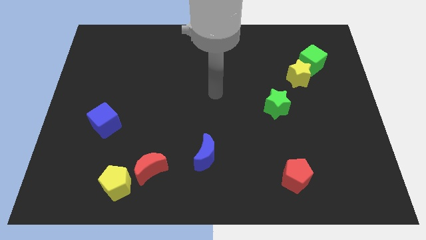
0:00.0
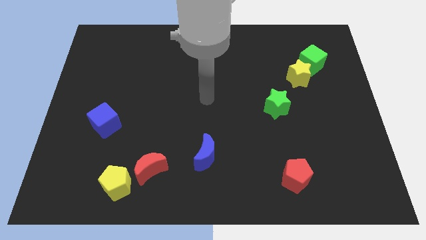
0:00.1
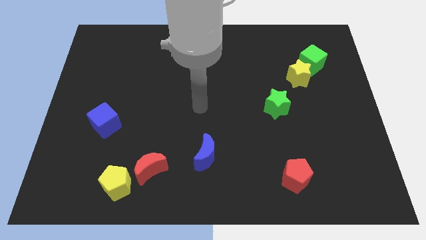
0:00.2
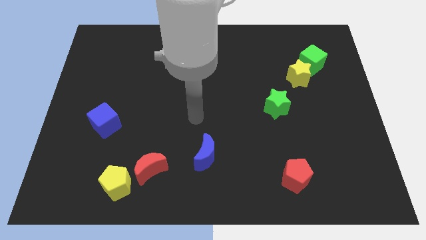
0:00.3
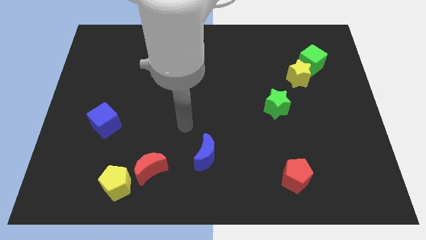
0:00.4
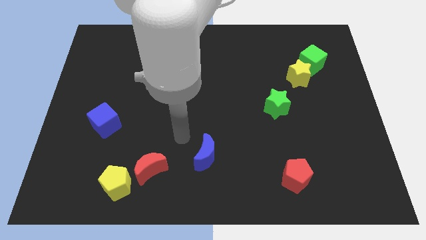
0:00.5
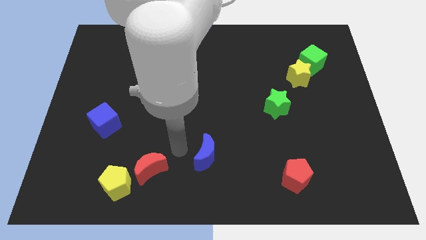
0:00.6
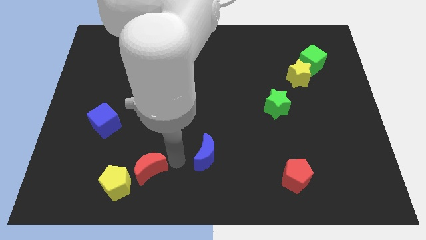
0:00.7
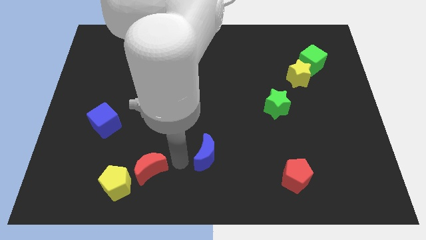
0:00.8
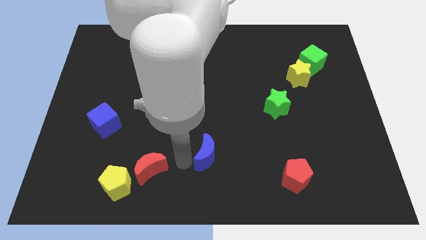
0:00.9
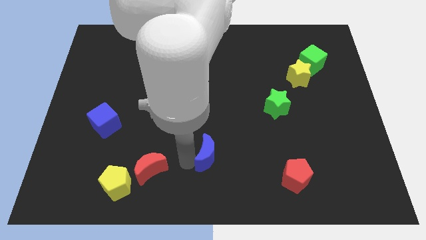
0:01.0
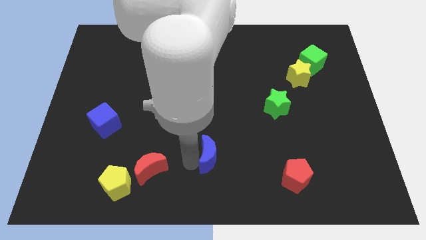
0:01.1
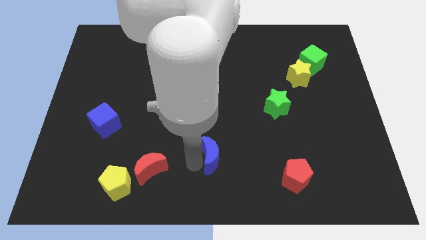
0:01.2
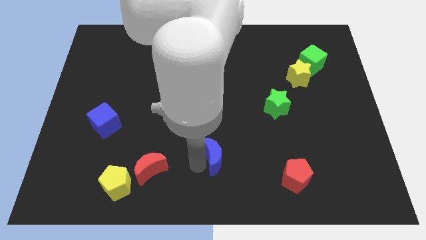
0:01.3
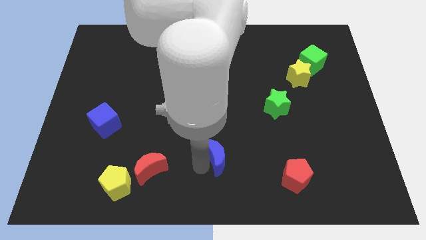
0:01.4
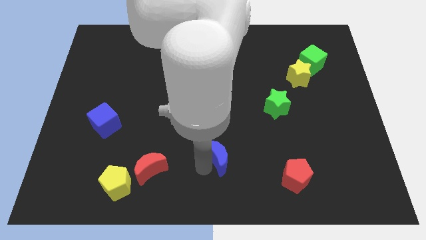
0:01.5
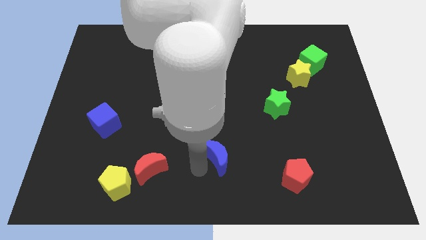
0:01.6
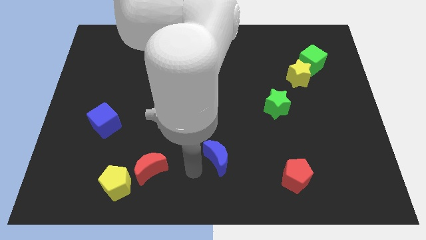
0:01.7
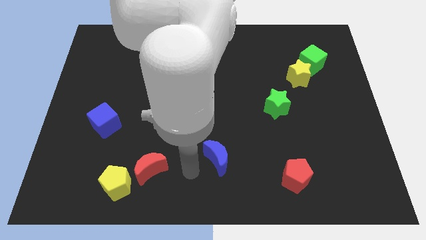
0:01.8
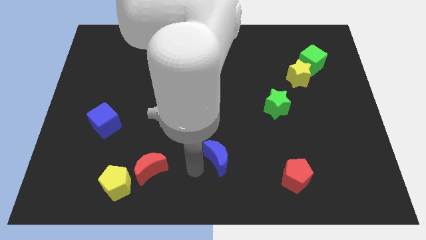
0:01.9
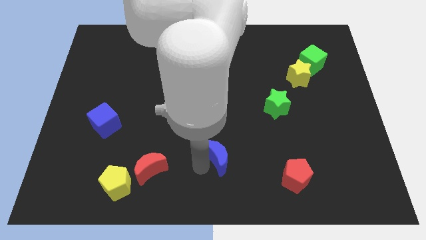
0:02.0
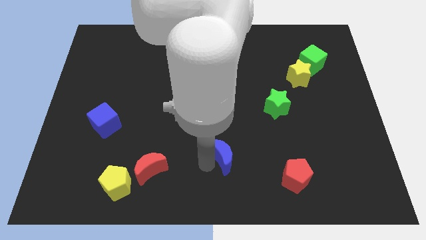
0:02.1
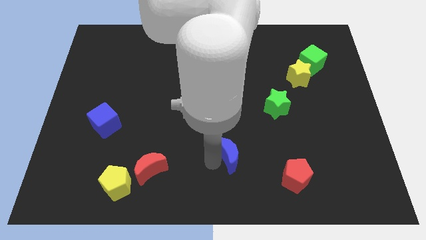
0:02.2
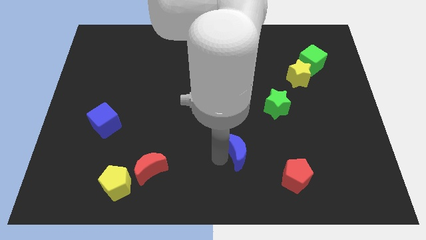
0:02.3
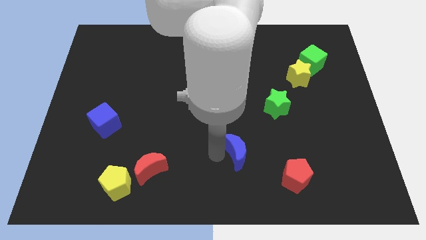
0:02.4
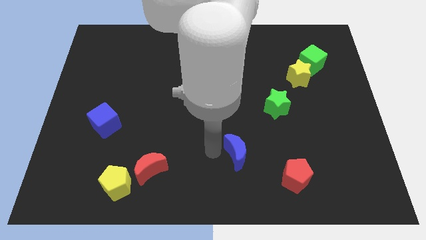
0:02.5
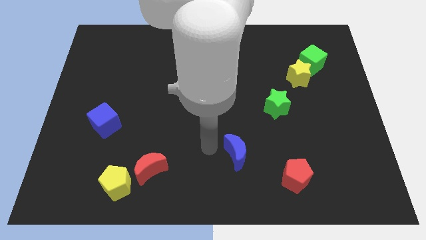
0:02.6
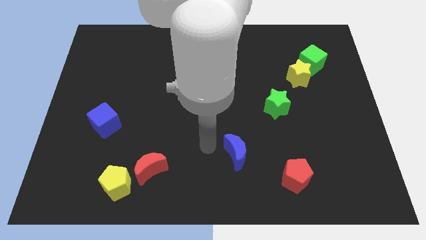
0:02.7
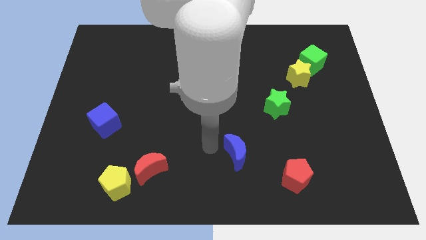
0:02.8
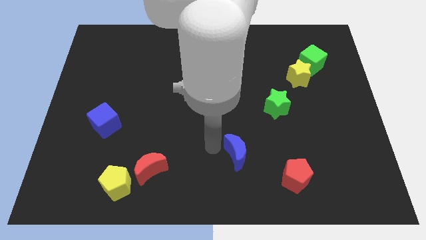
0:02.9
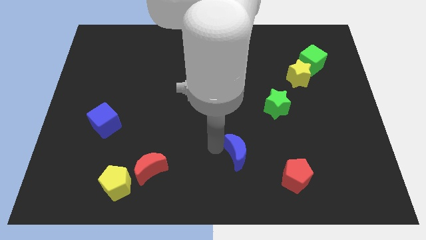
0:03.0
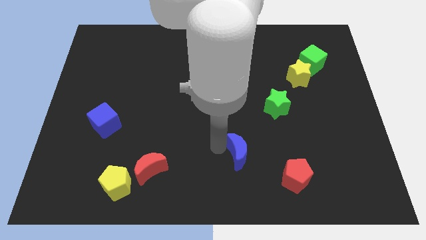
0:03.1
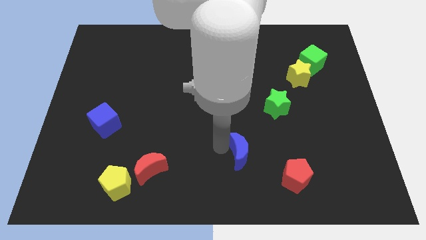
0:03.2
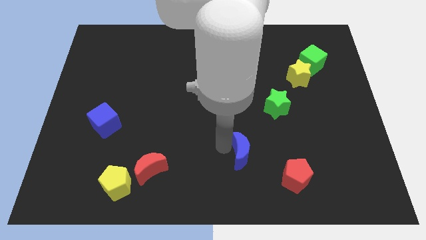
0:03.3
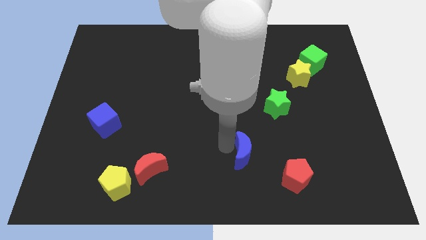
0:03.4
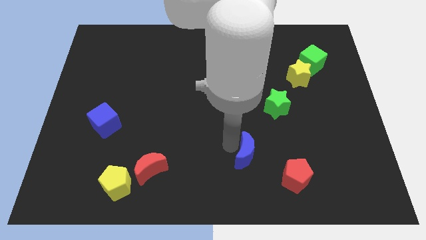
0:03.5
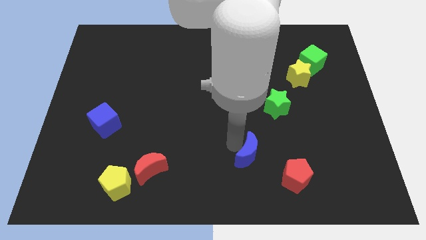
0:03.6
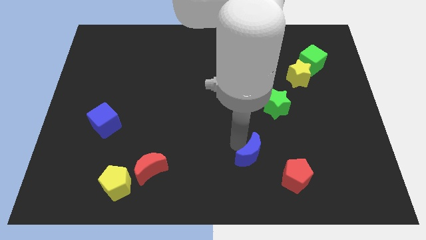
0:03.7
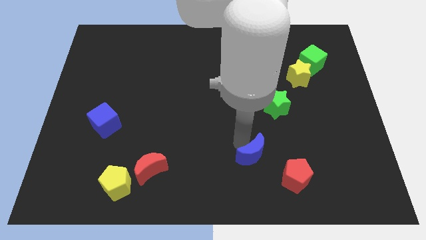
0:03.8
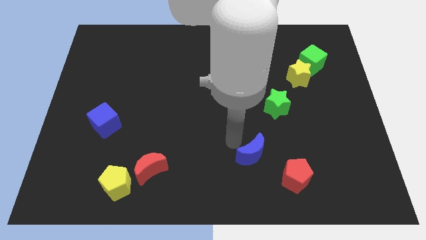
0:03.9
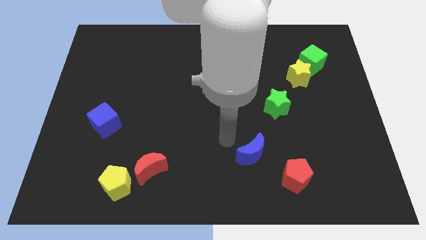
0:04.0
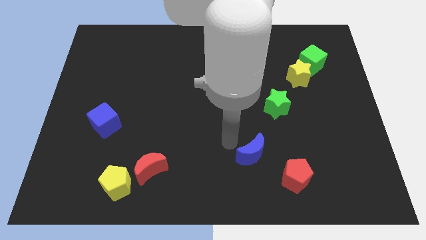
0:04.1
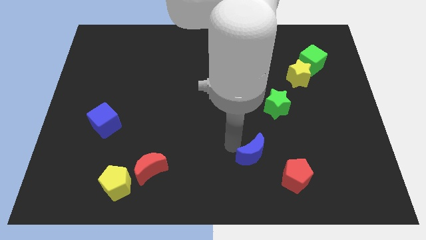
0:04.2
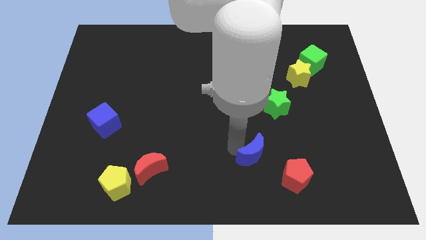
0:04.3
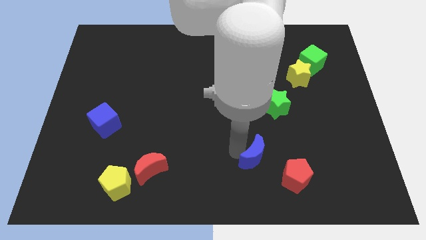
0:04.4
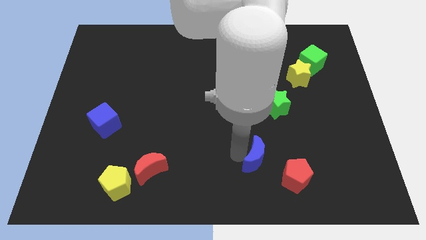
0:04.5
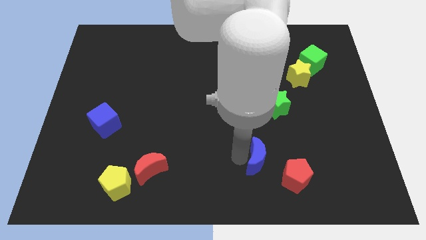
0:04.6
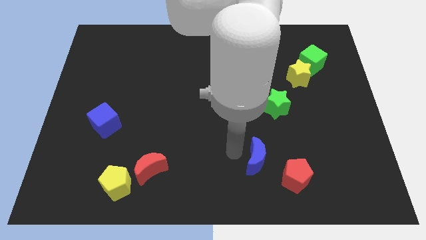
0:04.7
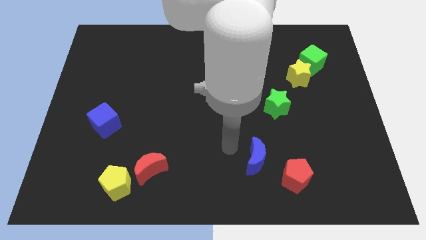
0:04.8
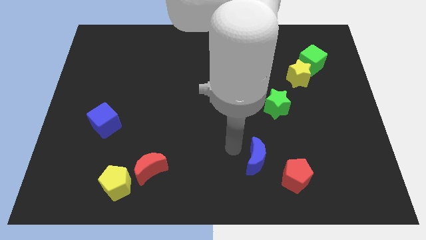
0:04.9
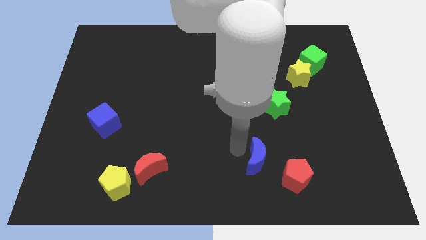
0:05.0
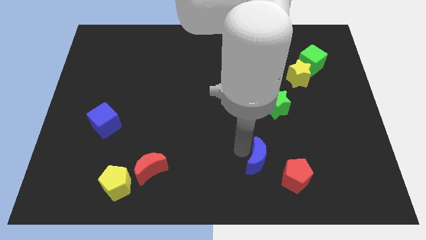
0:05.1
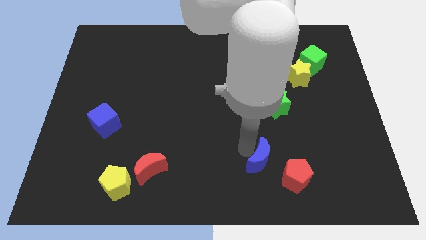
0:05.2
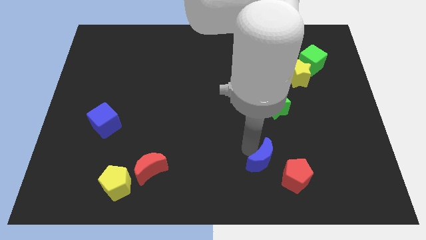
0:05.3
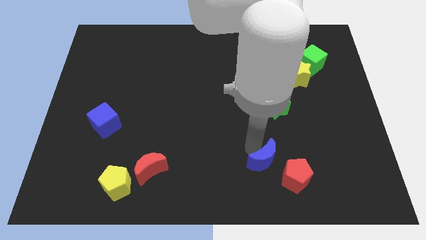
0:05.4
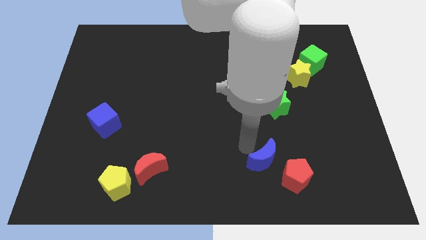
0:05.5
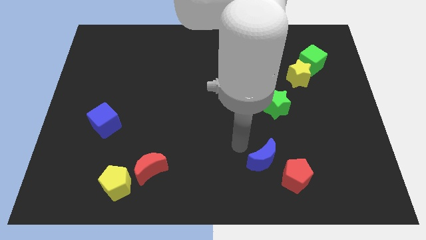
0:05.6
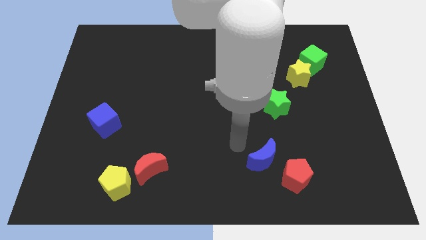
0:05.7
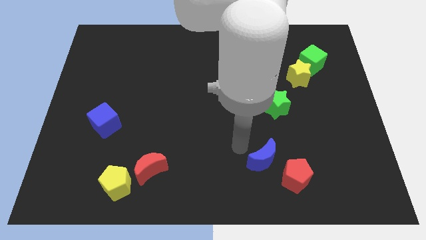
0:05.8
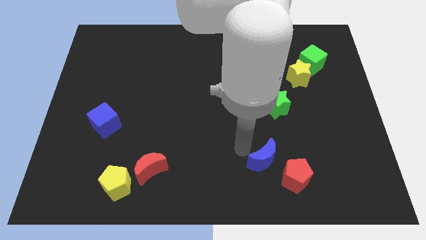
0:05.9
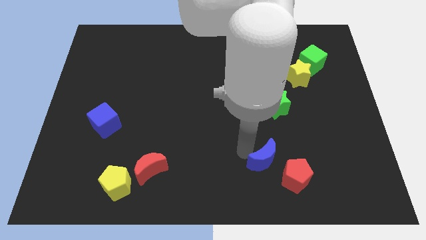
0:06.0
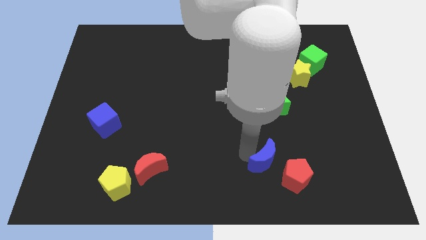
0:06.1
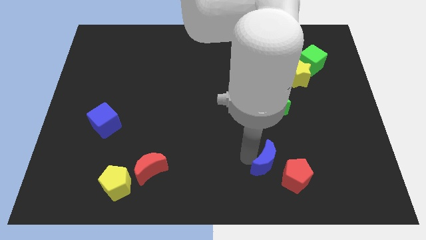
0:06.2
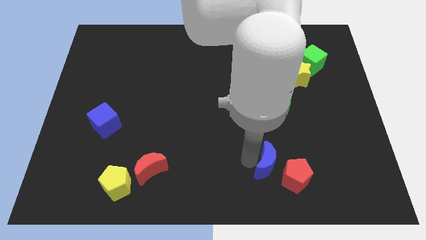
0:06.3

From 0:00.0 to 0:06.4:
push the blue moon next to the red pentagon
